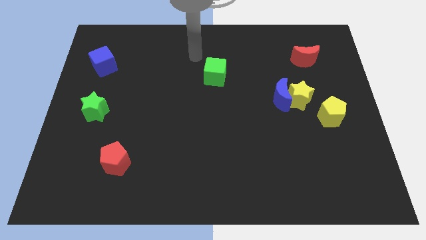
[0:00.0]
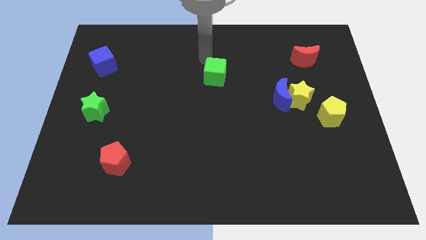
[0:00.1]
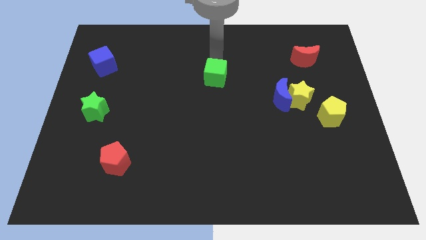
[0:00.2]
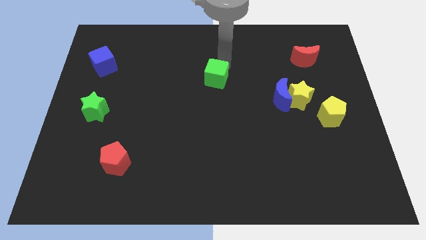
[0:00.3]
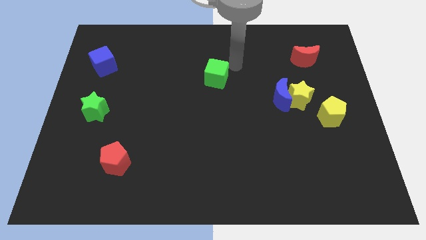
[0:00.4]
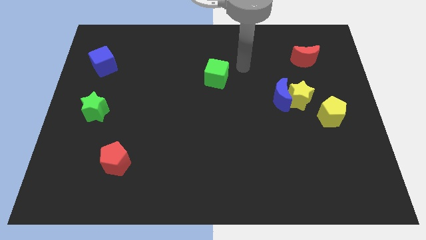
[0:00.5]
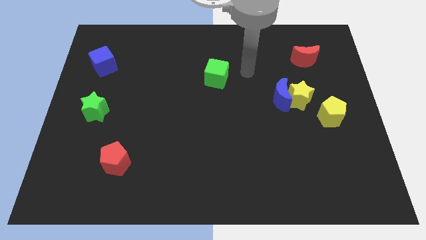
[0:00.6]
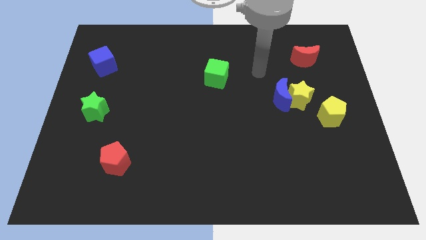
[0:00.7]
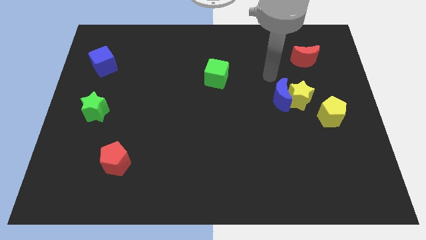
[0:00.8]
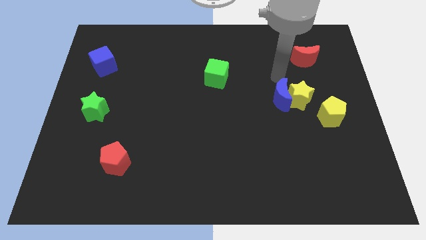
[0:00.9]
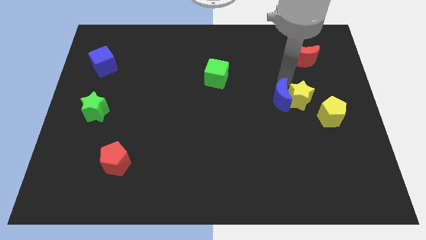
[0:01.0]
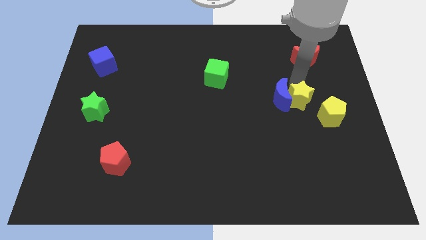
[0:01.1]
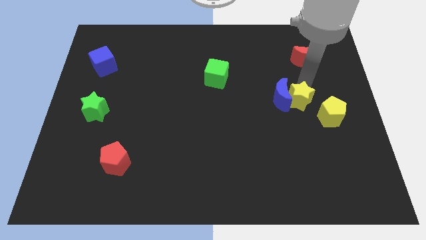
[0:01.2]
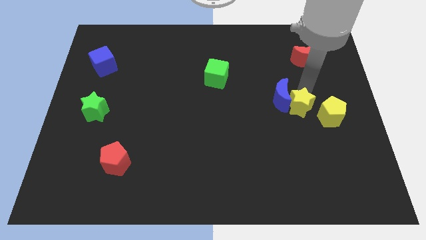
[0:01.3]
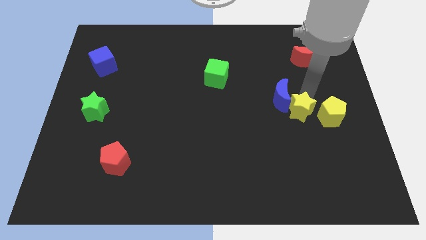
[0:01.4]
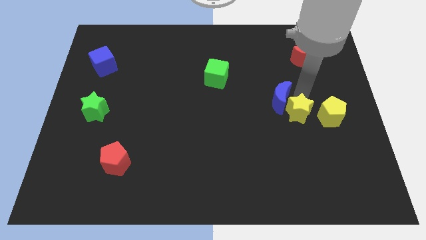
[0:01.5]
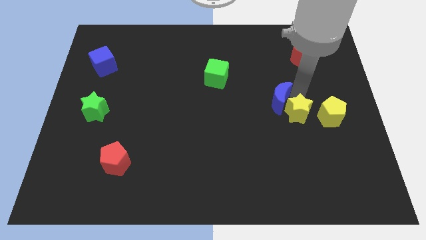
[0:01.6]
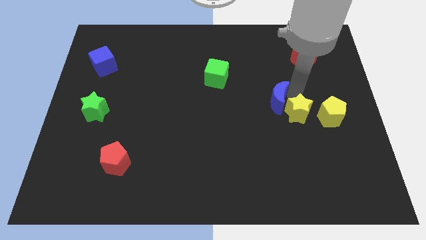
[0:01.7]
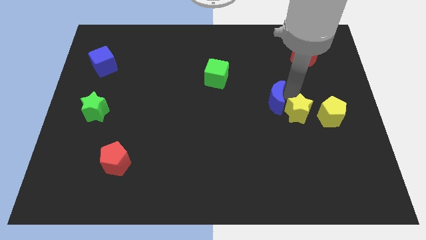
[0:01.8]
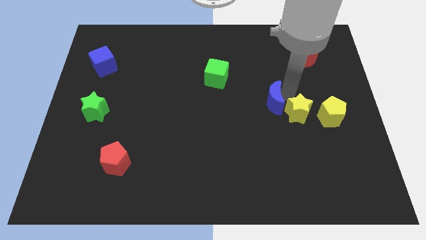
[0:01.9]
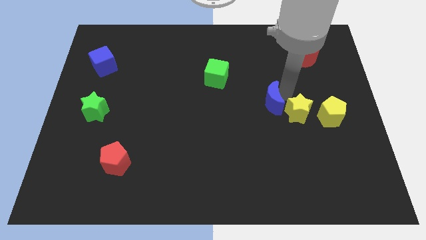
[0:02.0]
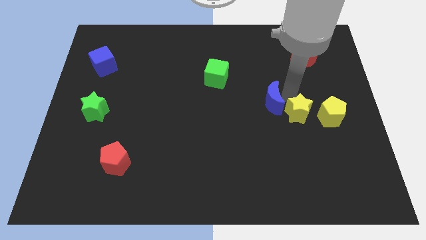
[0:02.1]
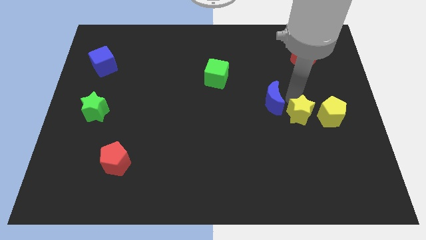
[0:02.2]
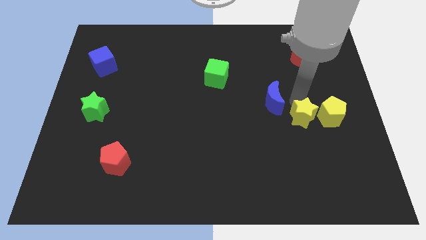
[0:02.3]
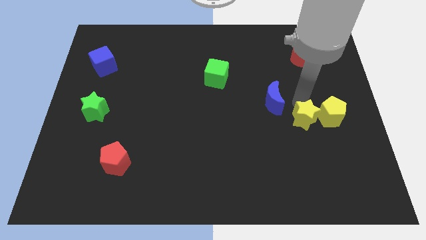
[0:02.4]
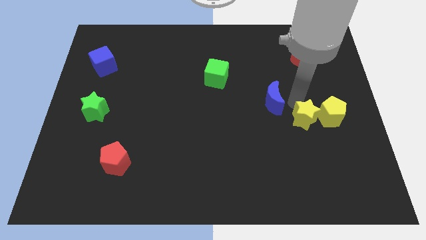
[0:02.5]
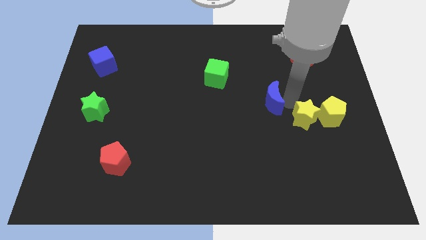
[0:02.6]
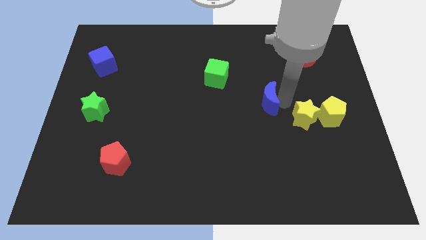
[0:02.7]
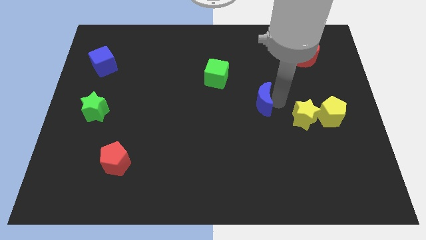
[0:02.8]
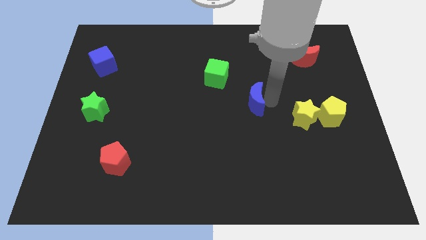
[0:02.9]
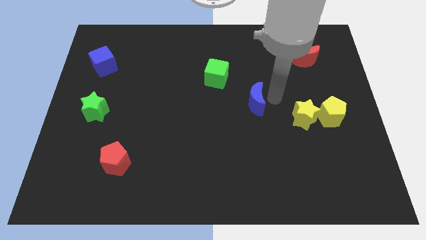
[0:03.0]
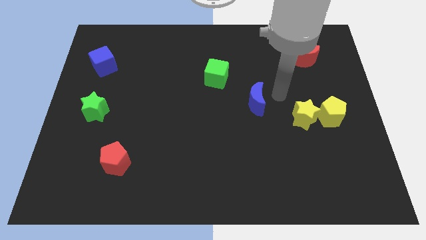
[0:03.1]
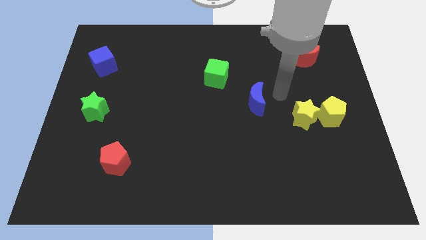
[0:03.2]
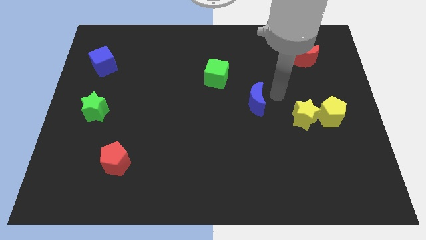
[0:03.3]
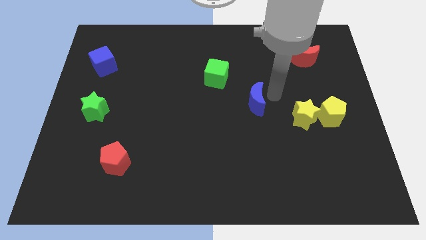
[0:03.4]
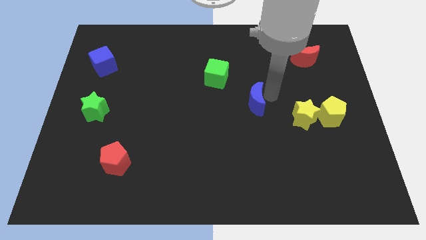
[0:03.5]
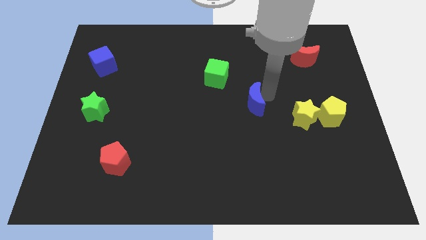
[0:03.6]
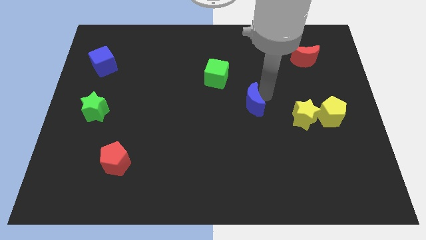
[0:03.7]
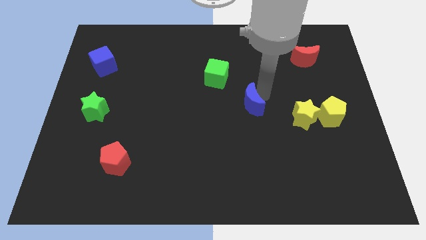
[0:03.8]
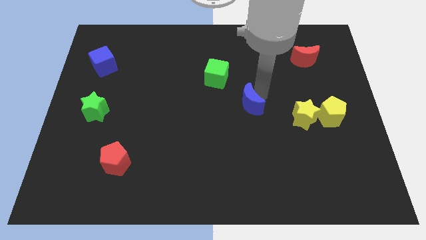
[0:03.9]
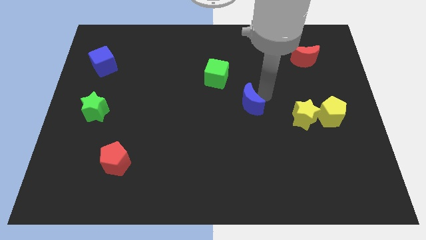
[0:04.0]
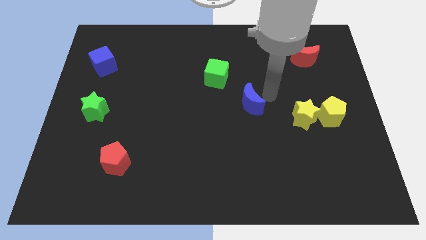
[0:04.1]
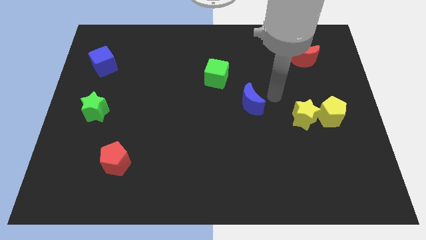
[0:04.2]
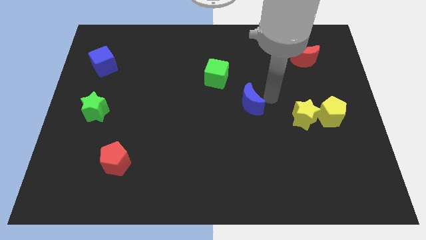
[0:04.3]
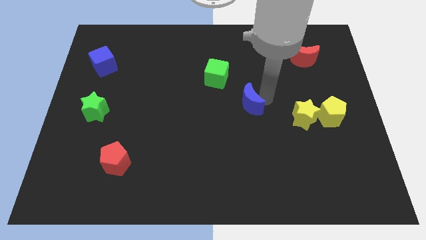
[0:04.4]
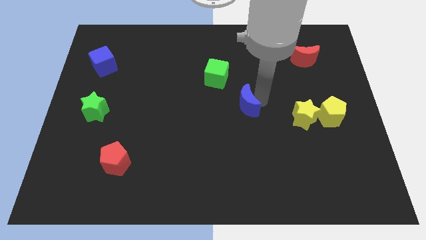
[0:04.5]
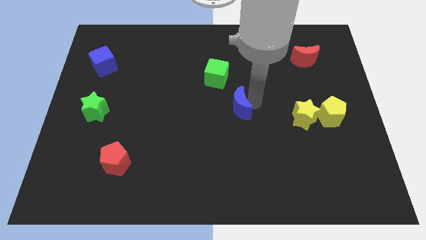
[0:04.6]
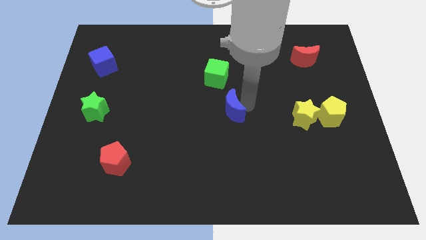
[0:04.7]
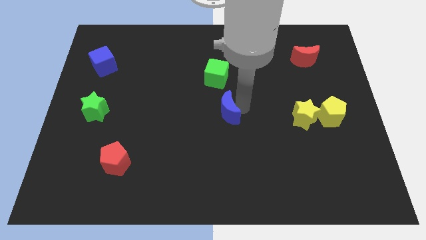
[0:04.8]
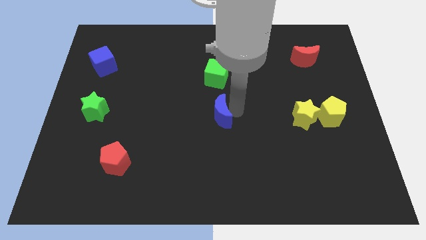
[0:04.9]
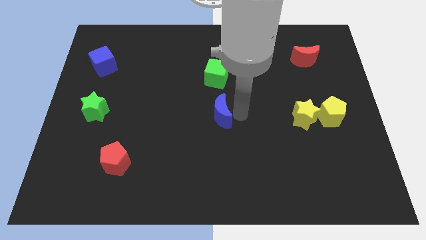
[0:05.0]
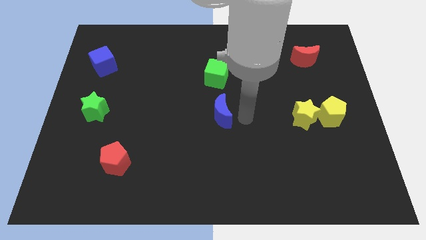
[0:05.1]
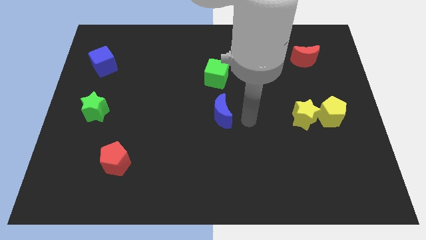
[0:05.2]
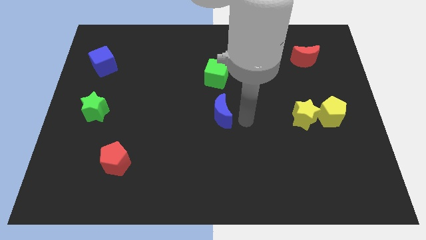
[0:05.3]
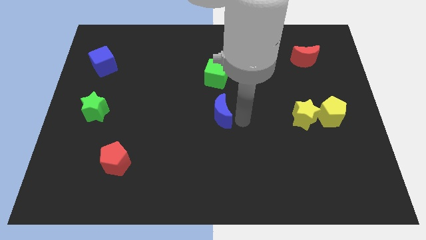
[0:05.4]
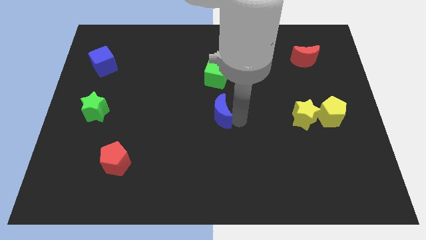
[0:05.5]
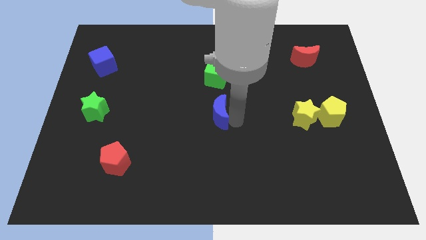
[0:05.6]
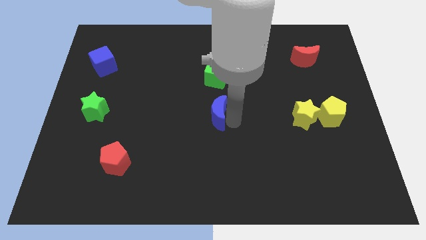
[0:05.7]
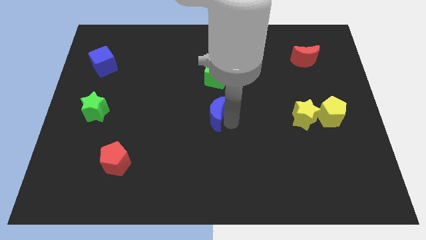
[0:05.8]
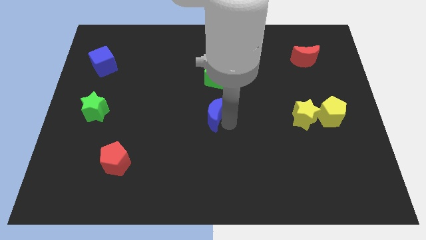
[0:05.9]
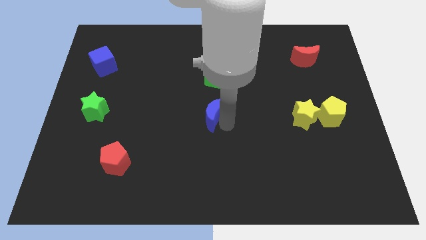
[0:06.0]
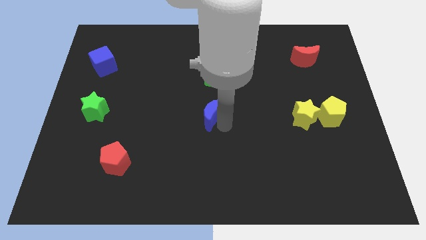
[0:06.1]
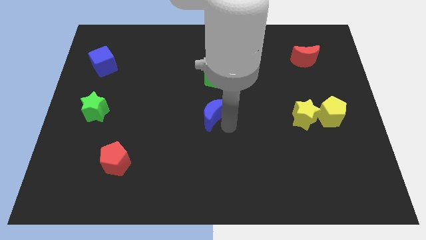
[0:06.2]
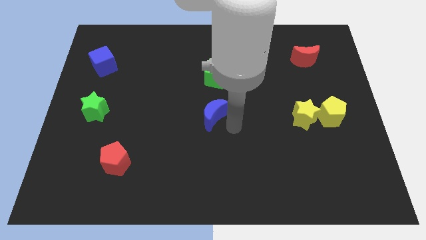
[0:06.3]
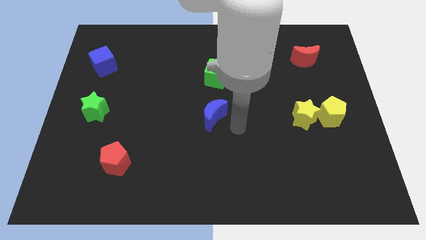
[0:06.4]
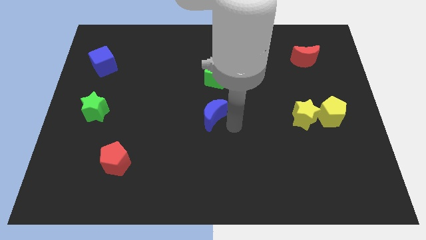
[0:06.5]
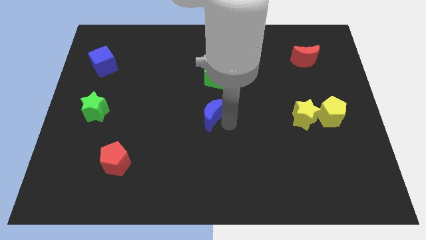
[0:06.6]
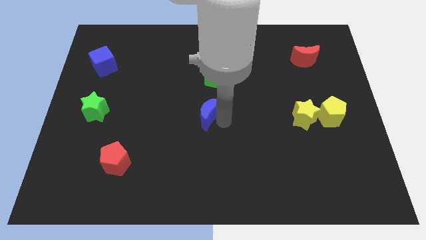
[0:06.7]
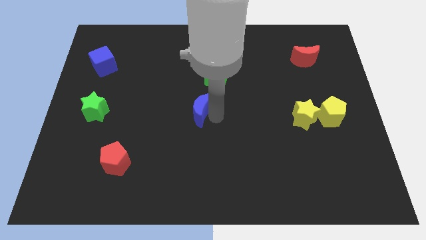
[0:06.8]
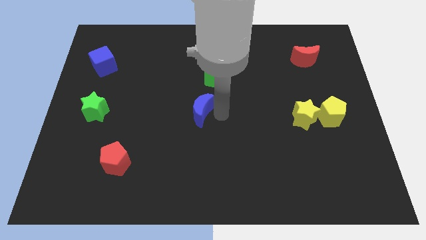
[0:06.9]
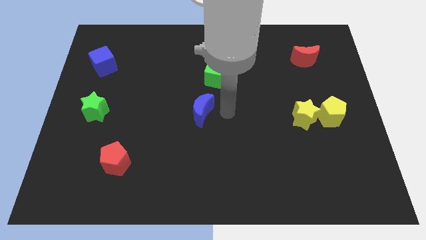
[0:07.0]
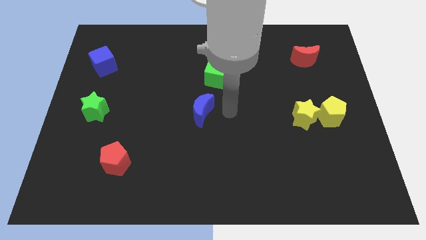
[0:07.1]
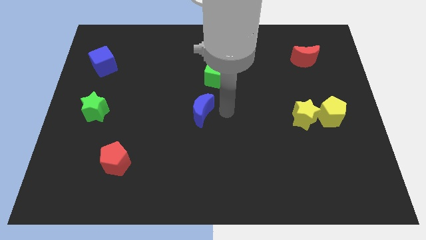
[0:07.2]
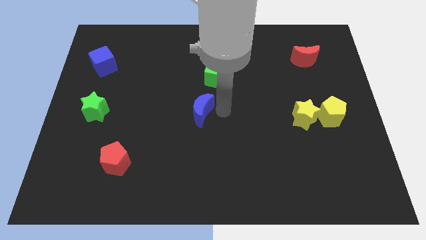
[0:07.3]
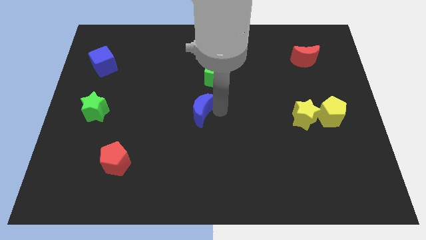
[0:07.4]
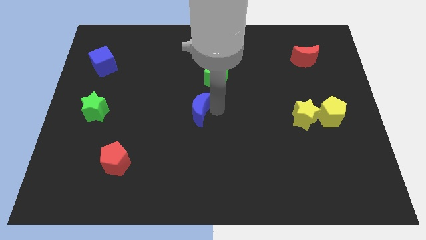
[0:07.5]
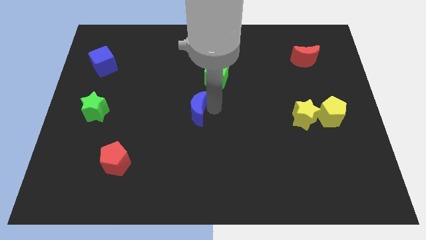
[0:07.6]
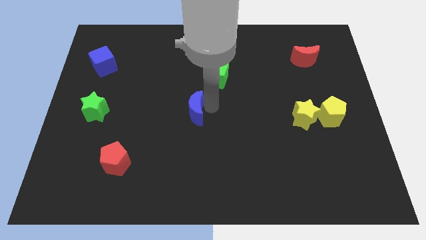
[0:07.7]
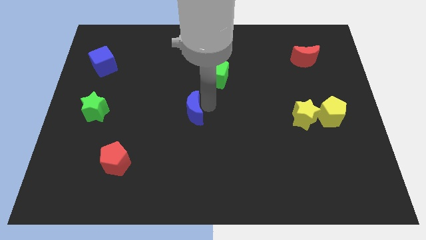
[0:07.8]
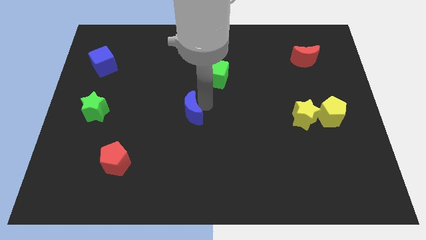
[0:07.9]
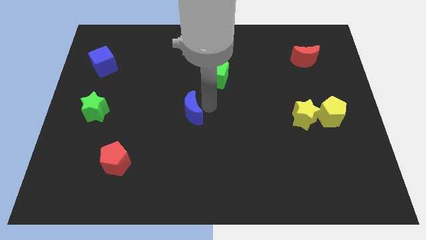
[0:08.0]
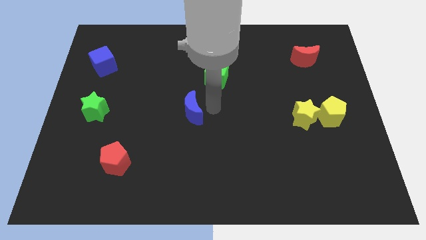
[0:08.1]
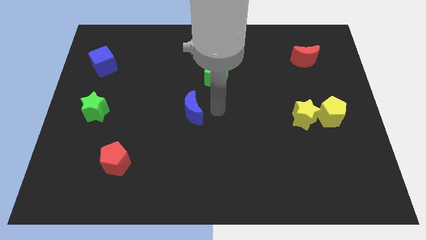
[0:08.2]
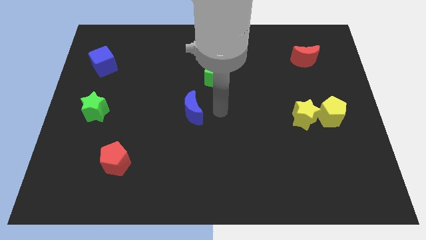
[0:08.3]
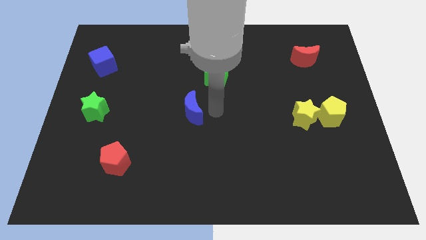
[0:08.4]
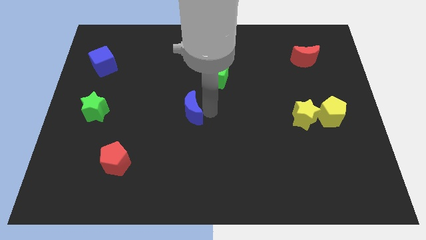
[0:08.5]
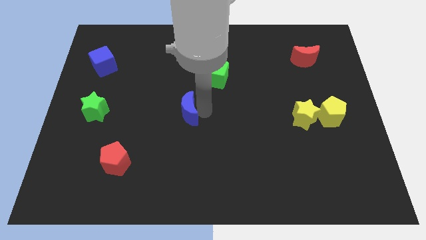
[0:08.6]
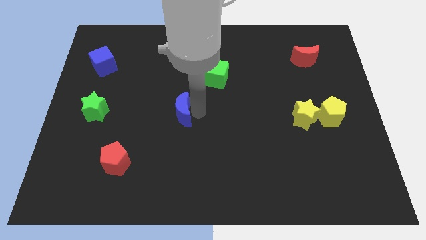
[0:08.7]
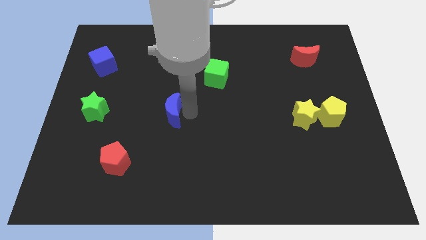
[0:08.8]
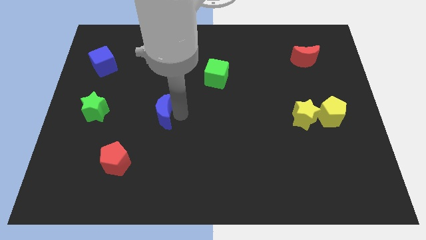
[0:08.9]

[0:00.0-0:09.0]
slide the blue moon right of the green star
